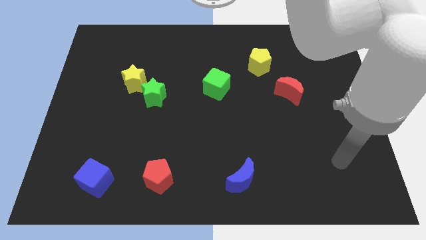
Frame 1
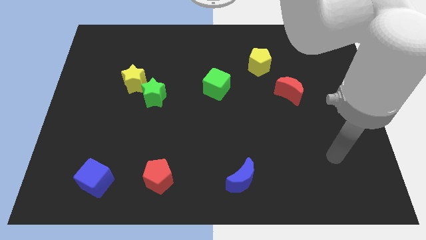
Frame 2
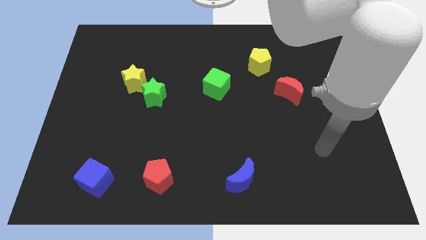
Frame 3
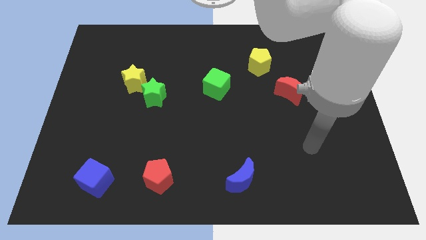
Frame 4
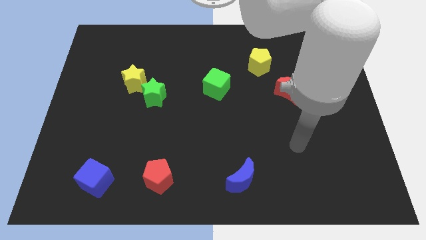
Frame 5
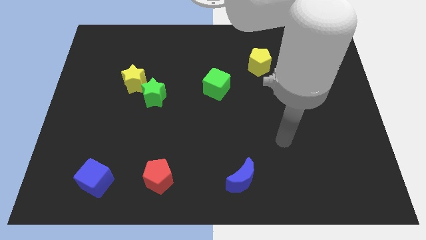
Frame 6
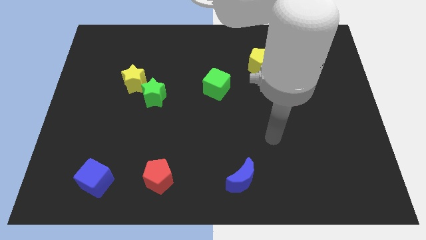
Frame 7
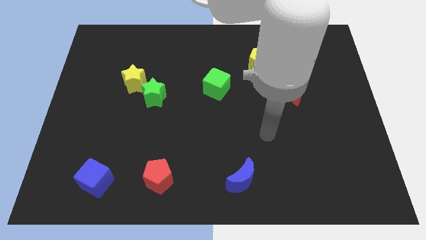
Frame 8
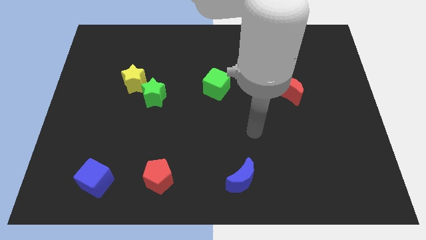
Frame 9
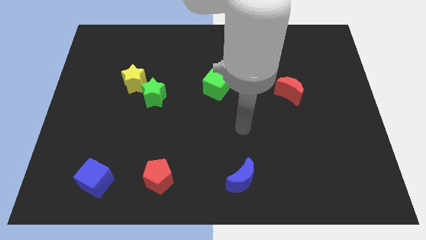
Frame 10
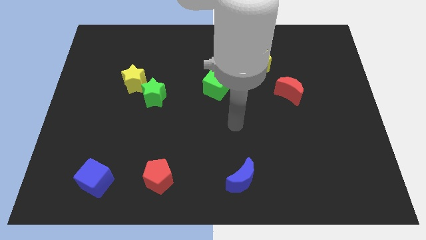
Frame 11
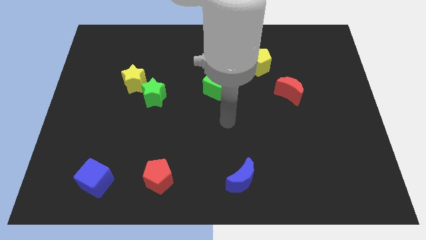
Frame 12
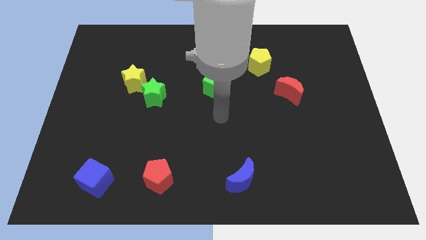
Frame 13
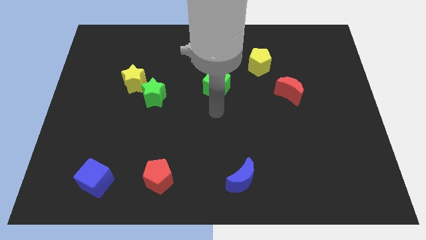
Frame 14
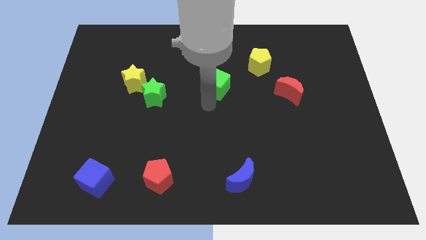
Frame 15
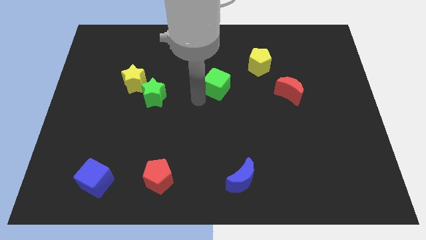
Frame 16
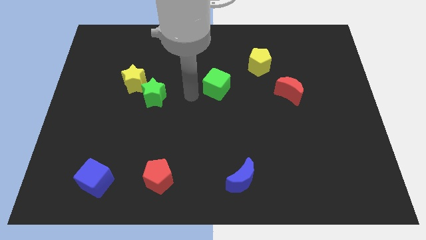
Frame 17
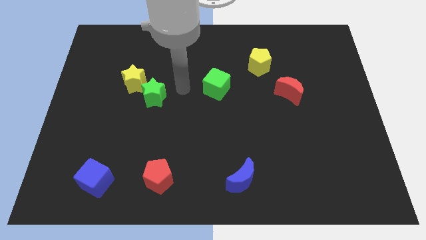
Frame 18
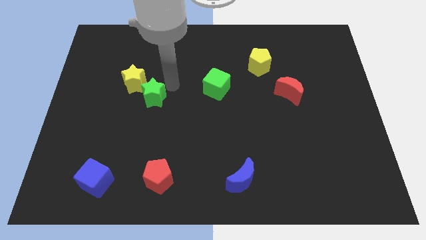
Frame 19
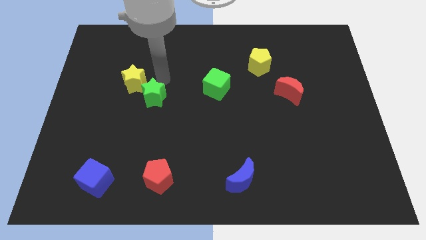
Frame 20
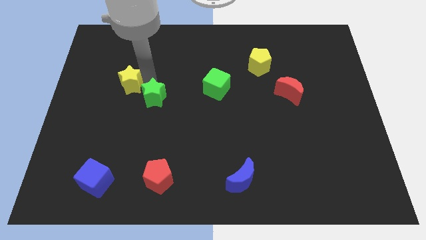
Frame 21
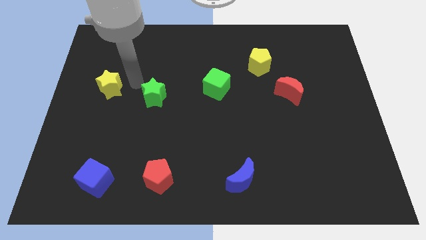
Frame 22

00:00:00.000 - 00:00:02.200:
separate the green star from the yellow star

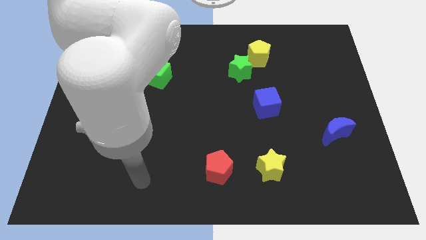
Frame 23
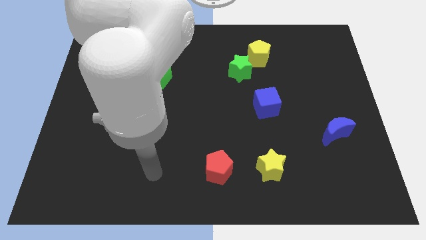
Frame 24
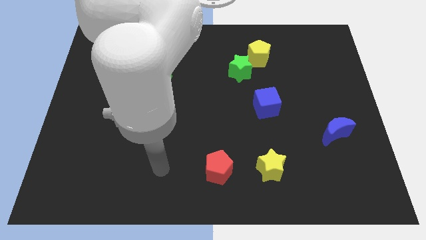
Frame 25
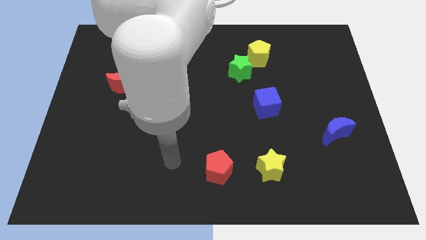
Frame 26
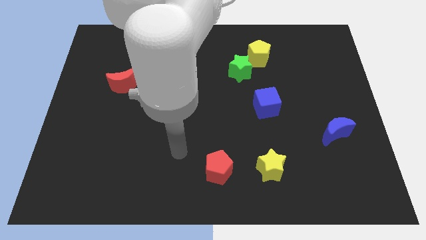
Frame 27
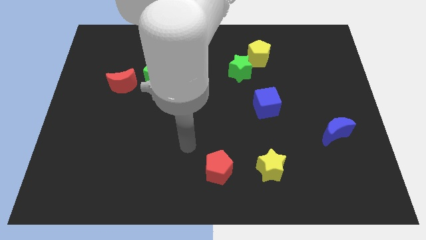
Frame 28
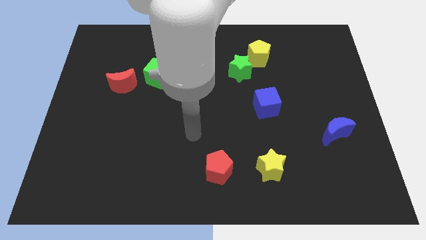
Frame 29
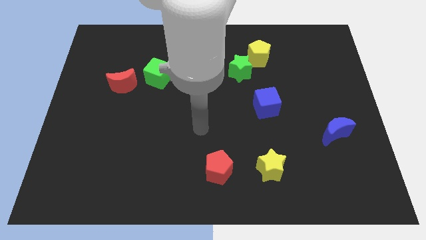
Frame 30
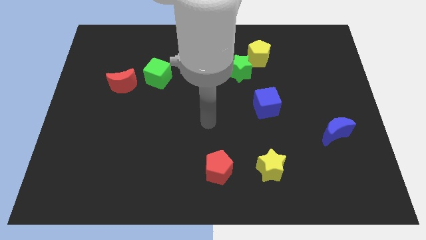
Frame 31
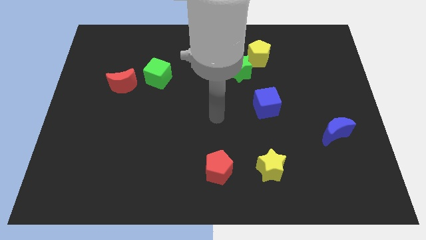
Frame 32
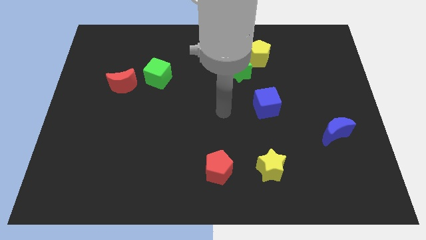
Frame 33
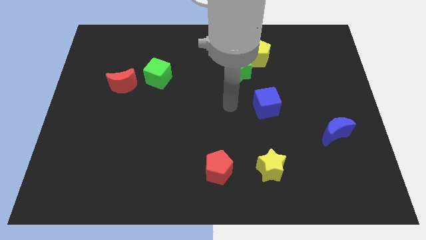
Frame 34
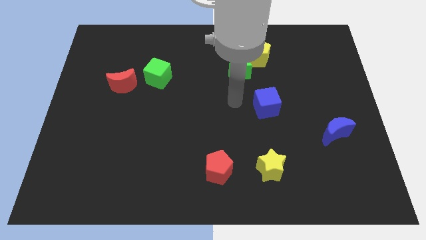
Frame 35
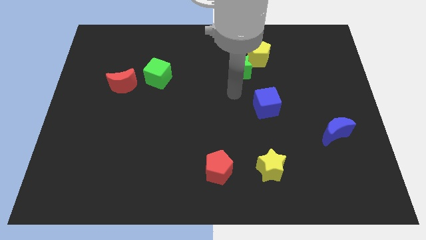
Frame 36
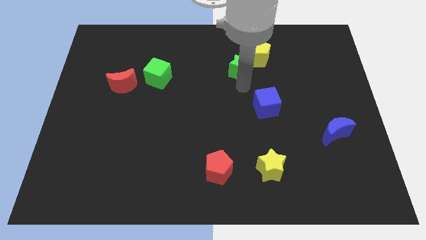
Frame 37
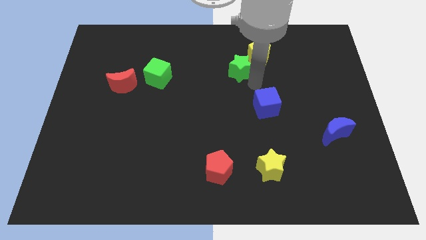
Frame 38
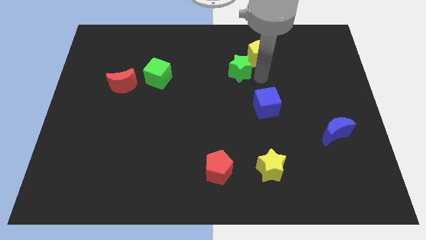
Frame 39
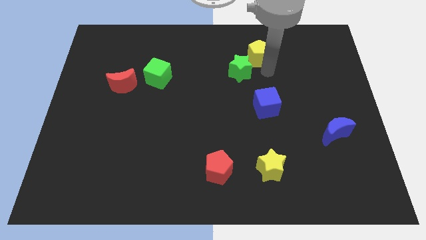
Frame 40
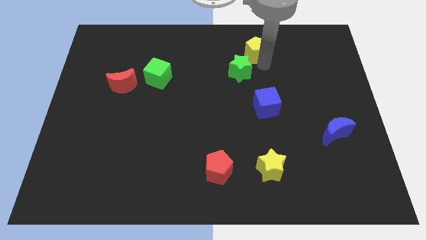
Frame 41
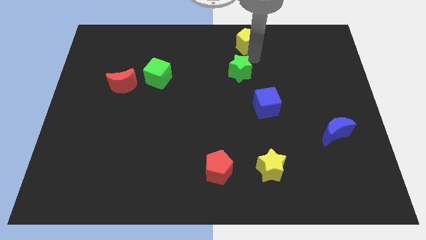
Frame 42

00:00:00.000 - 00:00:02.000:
move the green star away from the yellow pentagon

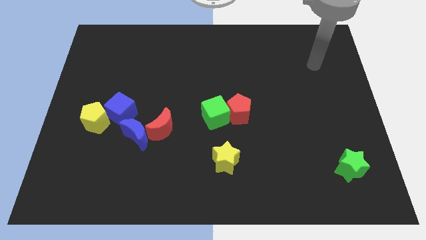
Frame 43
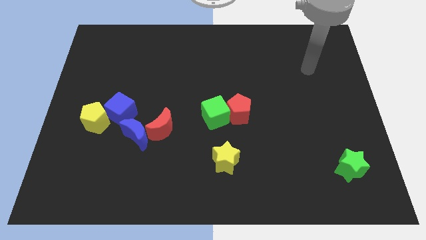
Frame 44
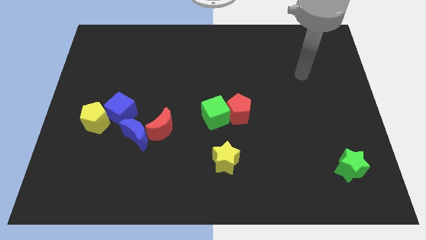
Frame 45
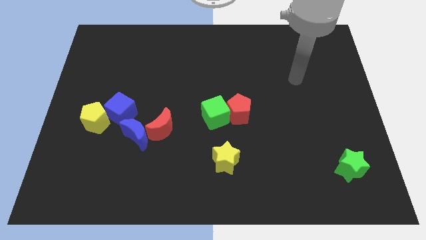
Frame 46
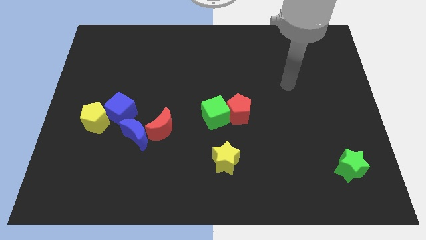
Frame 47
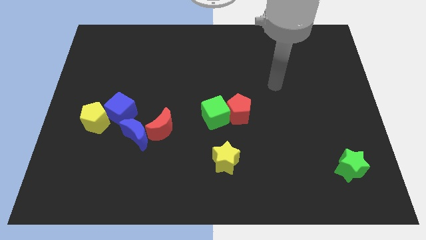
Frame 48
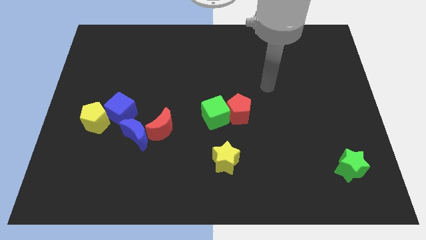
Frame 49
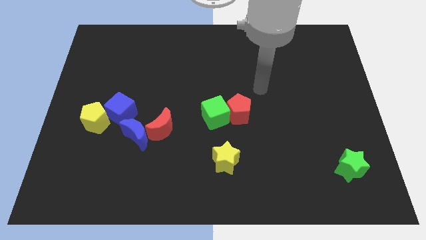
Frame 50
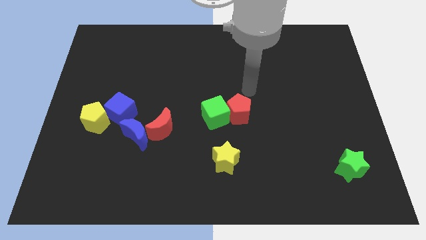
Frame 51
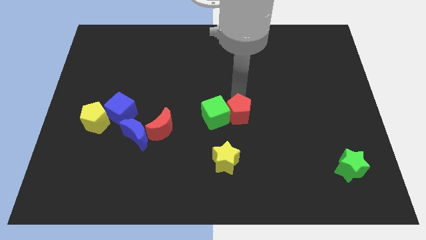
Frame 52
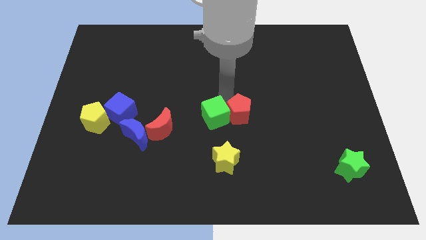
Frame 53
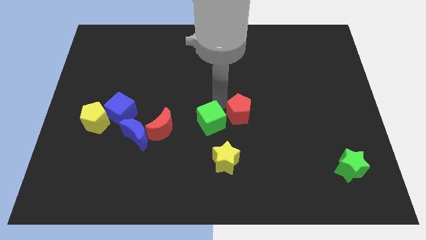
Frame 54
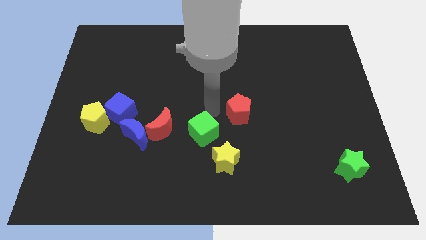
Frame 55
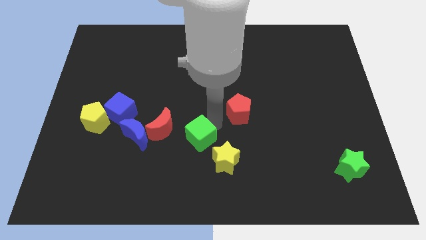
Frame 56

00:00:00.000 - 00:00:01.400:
move the red pentagon away from the green cube

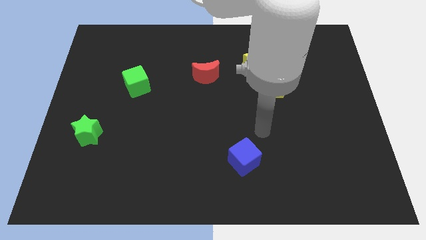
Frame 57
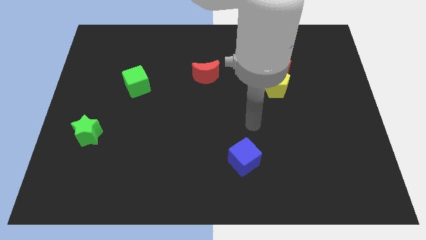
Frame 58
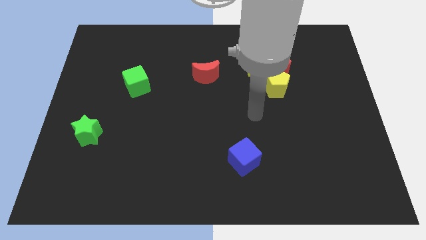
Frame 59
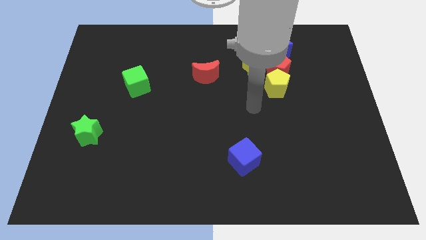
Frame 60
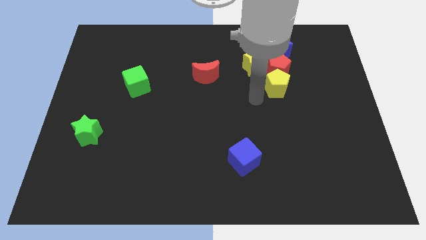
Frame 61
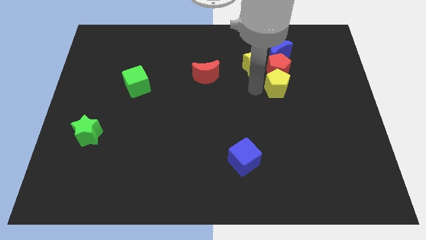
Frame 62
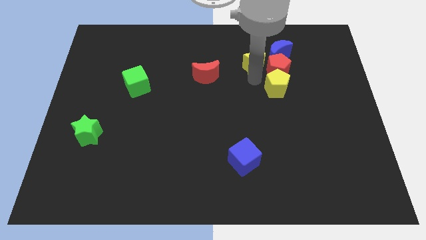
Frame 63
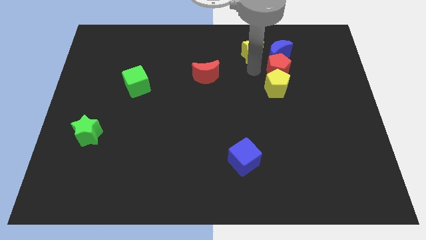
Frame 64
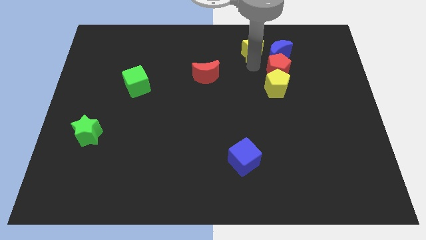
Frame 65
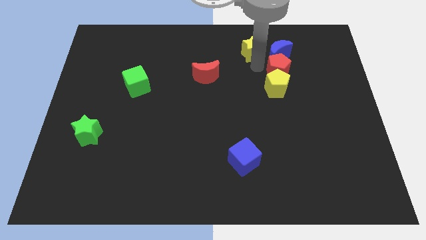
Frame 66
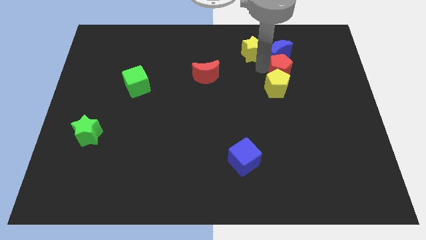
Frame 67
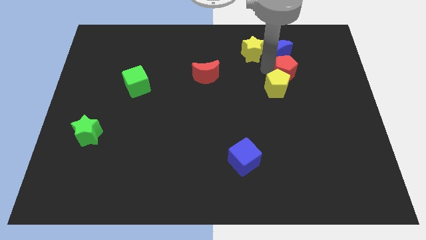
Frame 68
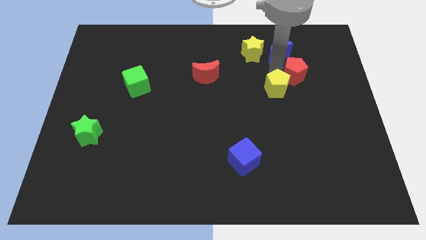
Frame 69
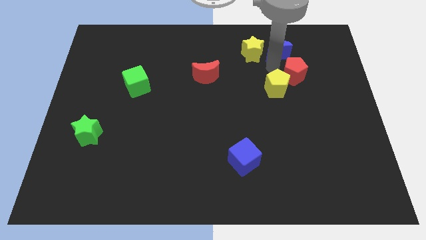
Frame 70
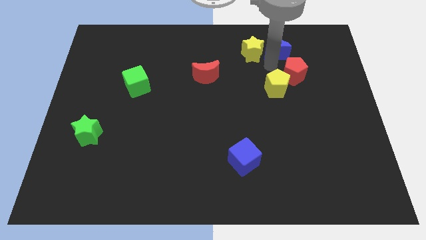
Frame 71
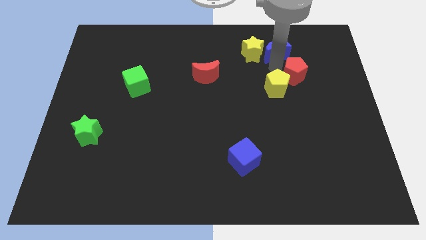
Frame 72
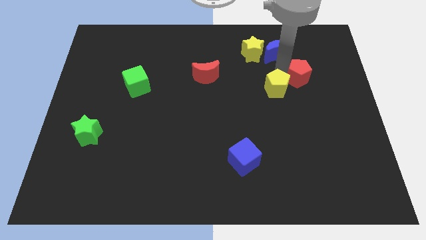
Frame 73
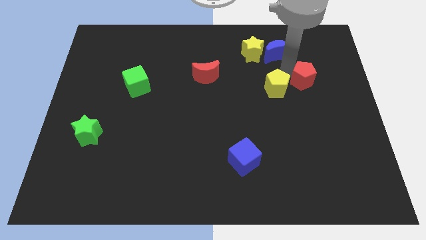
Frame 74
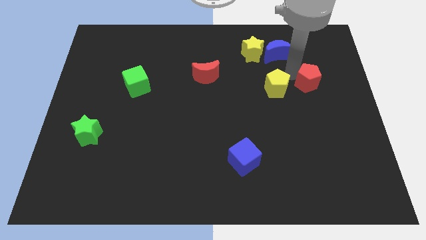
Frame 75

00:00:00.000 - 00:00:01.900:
move the red pentagon away from the group of blocks

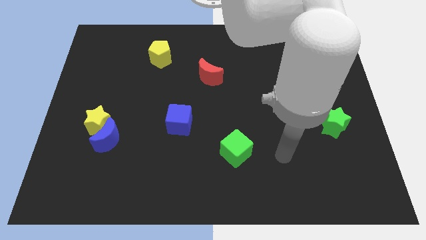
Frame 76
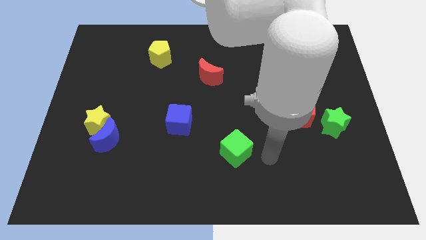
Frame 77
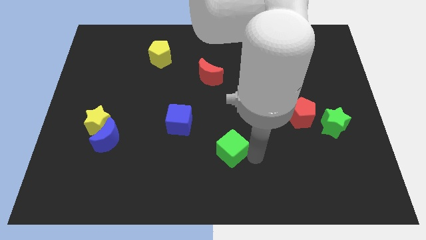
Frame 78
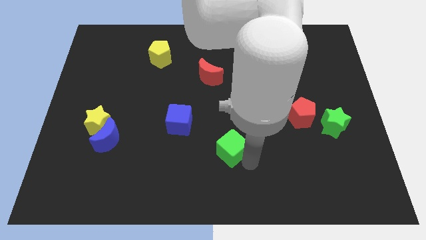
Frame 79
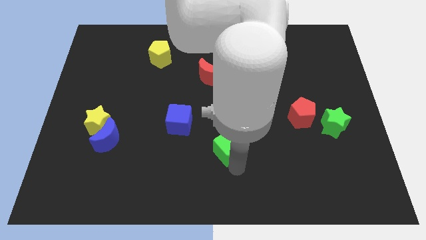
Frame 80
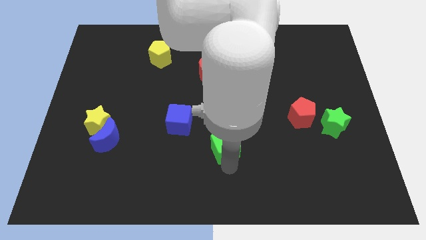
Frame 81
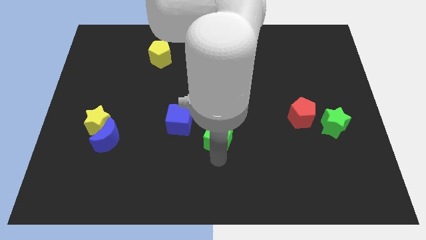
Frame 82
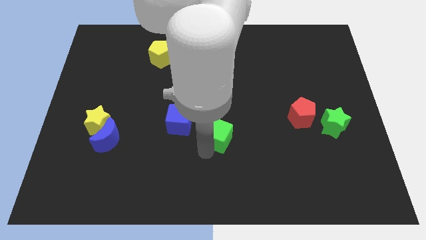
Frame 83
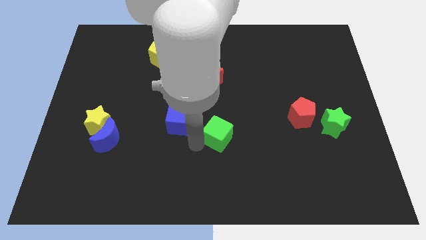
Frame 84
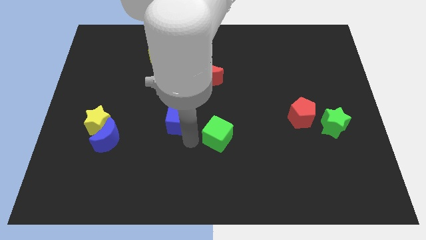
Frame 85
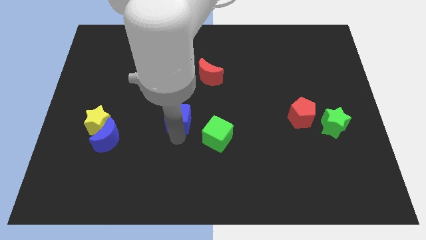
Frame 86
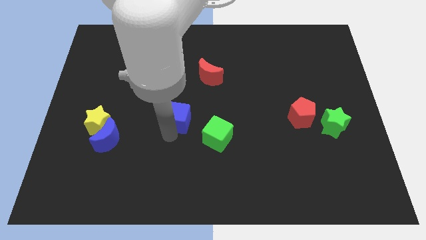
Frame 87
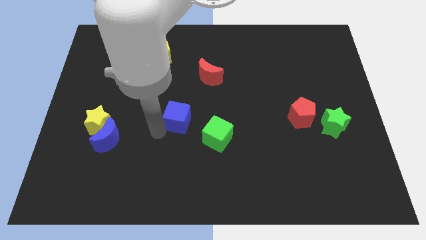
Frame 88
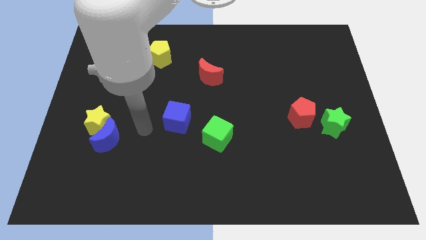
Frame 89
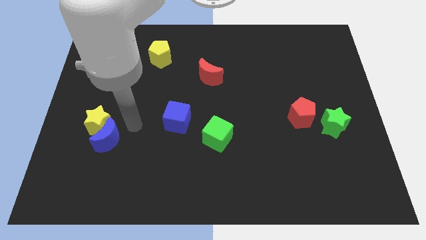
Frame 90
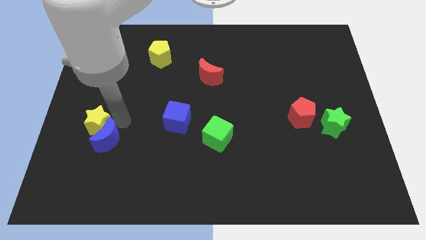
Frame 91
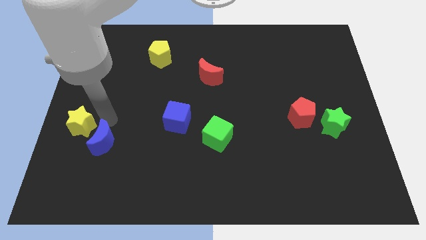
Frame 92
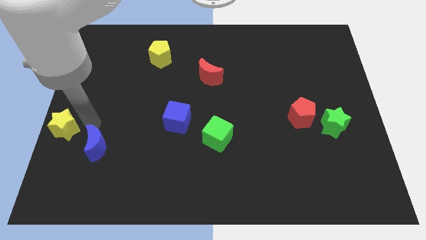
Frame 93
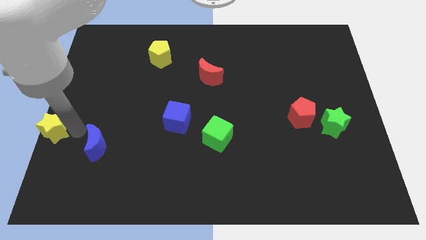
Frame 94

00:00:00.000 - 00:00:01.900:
move the blue moon away from the yellow star
